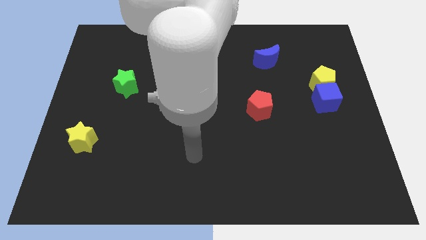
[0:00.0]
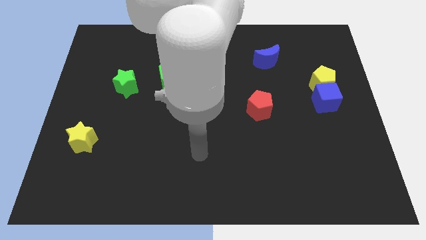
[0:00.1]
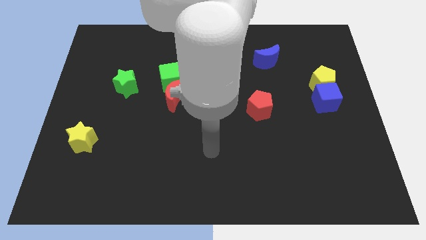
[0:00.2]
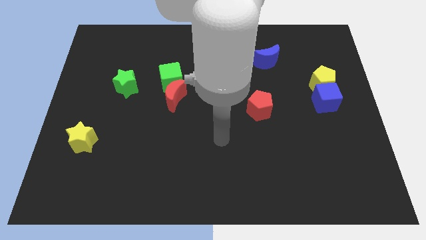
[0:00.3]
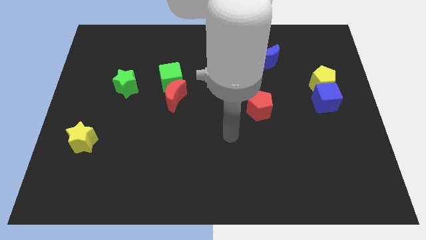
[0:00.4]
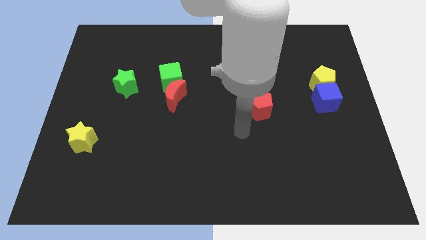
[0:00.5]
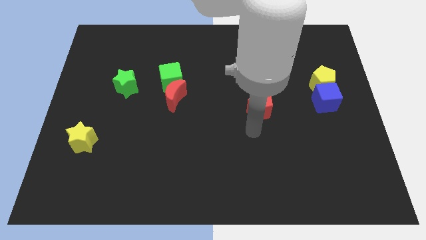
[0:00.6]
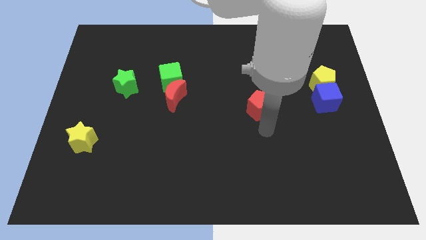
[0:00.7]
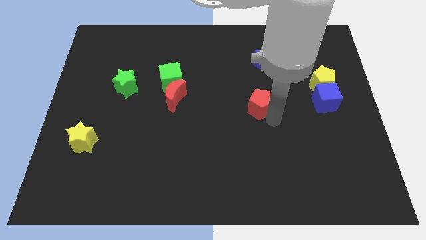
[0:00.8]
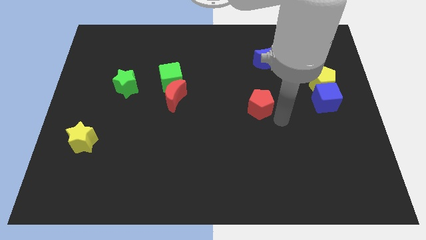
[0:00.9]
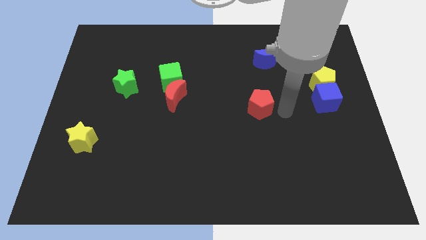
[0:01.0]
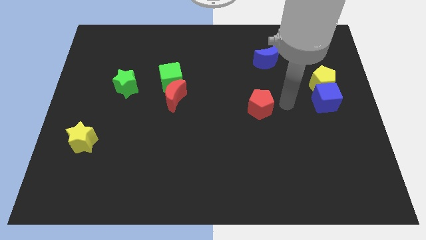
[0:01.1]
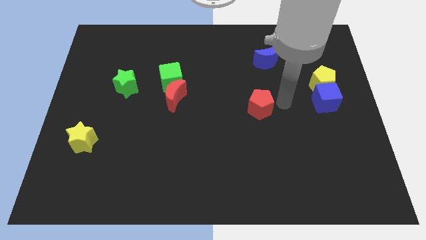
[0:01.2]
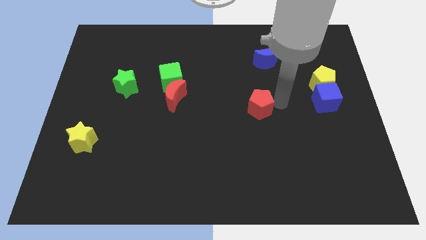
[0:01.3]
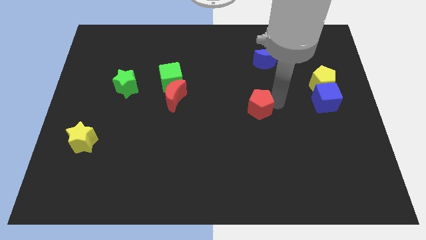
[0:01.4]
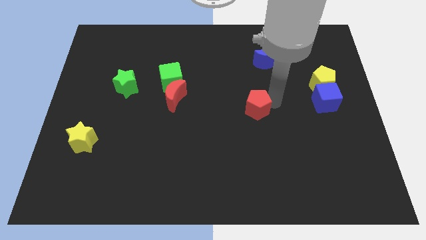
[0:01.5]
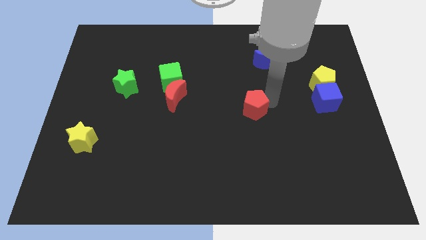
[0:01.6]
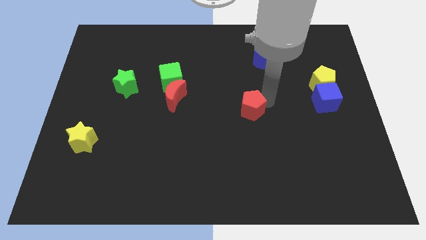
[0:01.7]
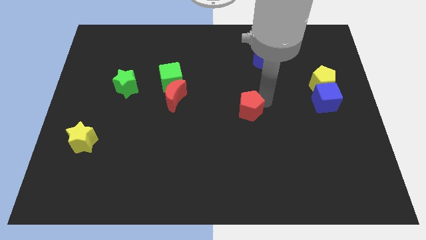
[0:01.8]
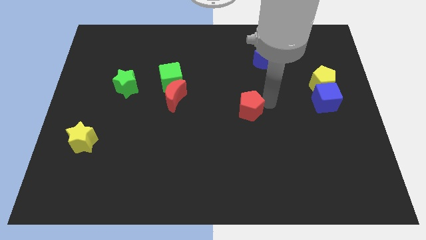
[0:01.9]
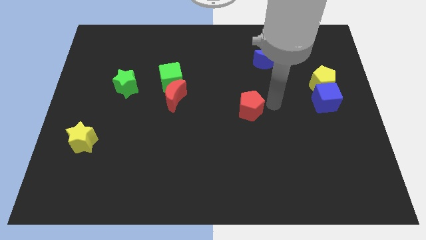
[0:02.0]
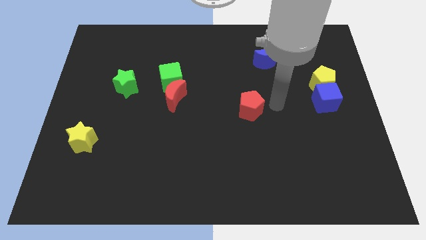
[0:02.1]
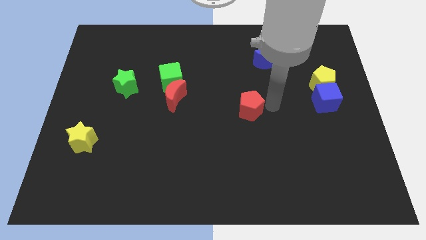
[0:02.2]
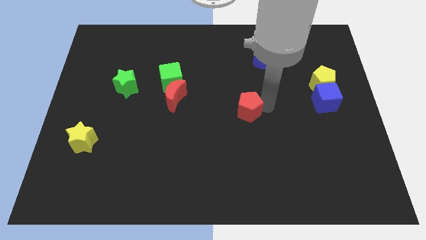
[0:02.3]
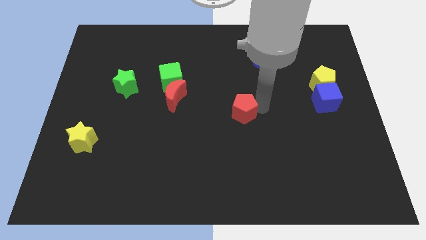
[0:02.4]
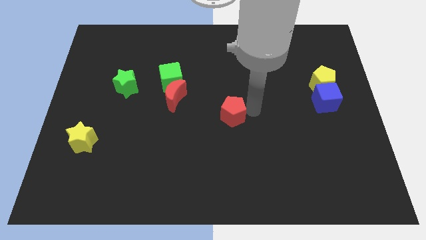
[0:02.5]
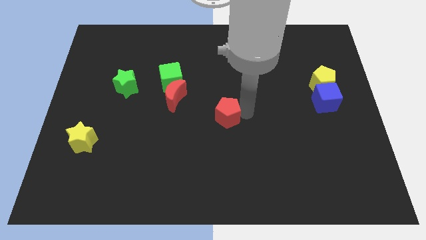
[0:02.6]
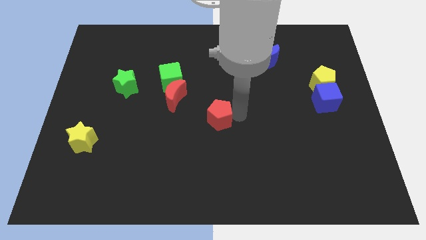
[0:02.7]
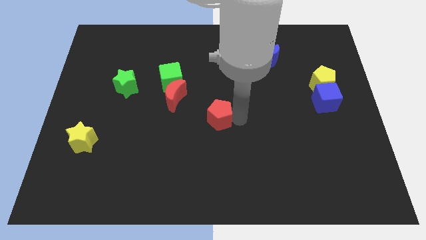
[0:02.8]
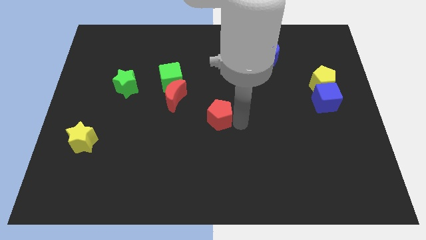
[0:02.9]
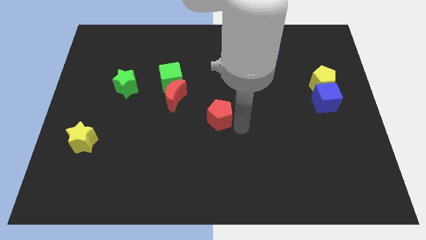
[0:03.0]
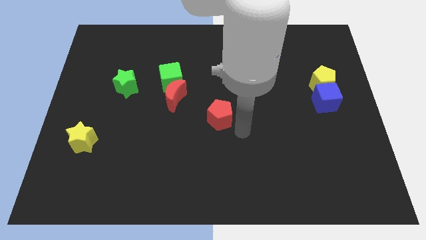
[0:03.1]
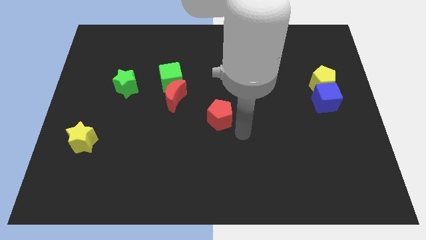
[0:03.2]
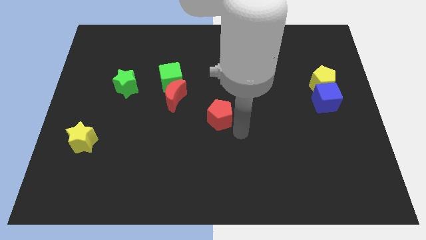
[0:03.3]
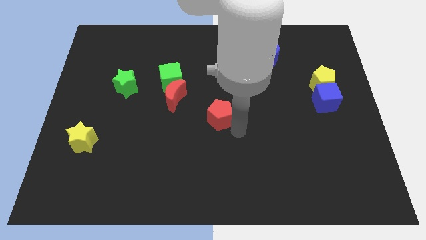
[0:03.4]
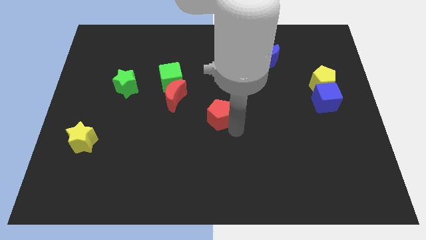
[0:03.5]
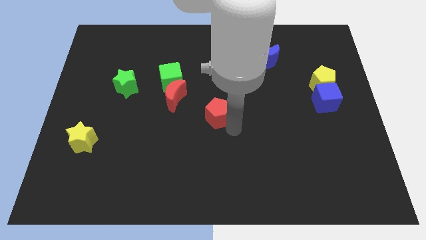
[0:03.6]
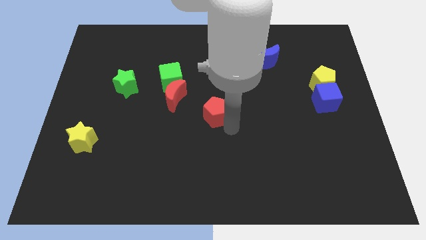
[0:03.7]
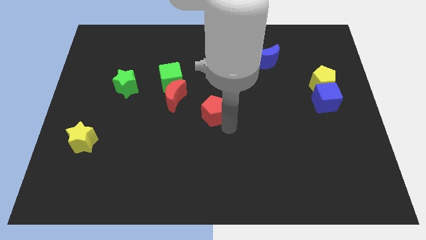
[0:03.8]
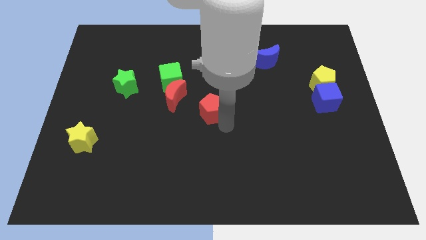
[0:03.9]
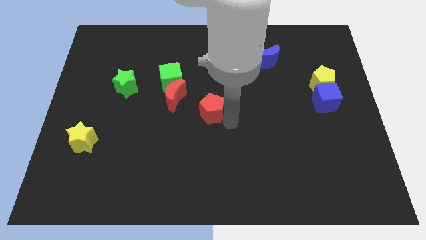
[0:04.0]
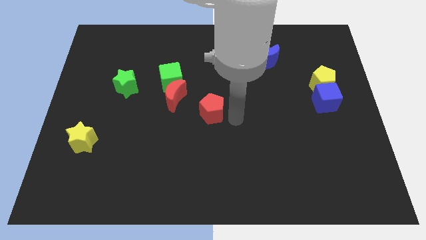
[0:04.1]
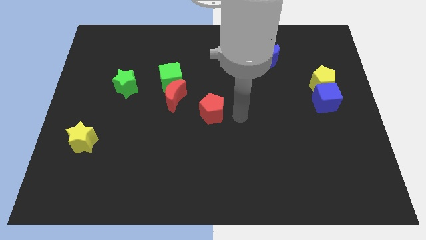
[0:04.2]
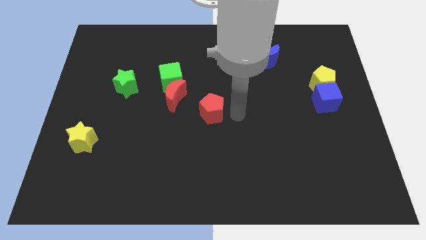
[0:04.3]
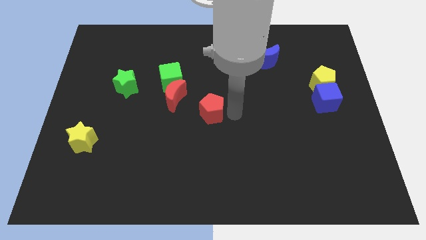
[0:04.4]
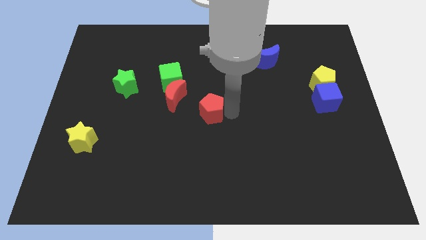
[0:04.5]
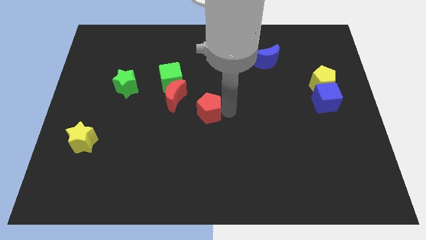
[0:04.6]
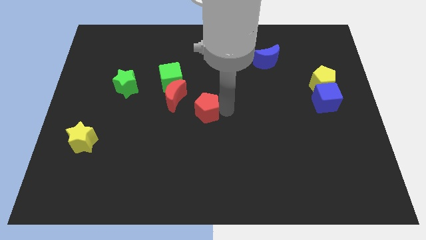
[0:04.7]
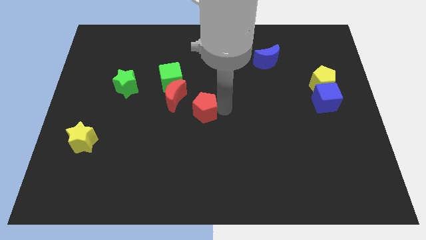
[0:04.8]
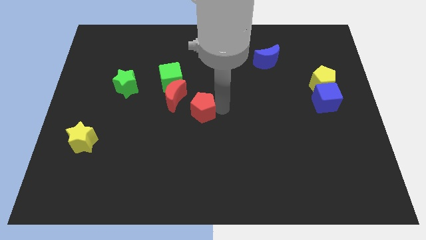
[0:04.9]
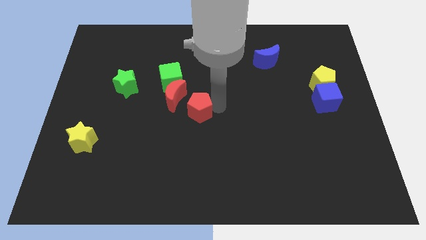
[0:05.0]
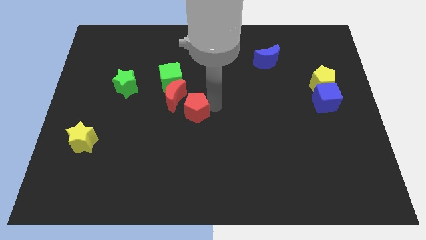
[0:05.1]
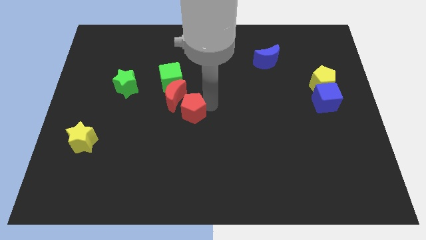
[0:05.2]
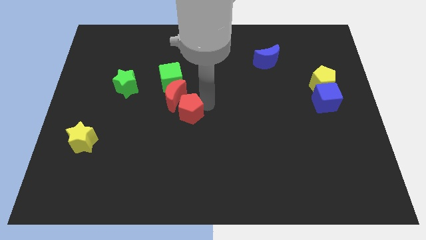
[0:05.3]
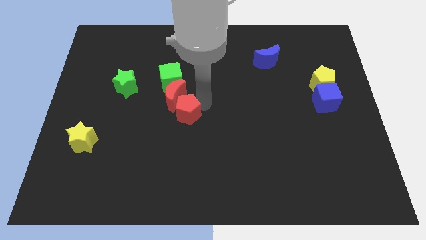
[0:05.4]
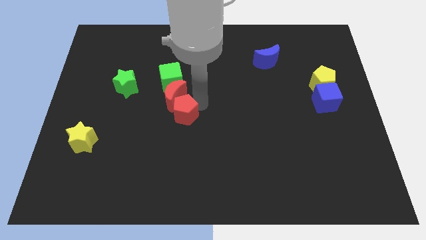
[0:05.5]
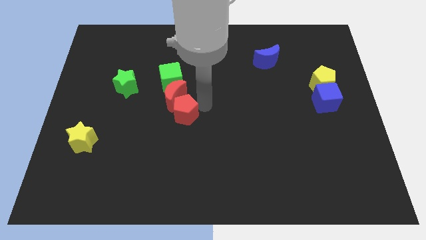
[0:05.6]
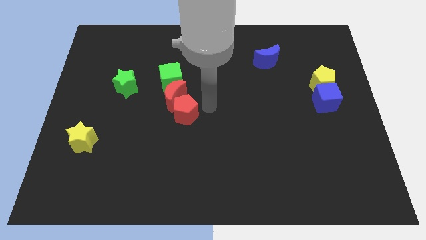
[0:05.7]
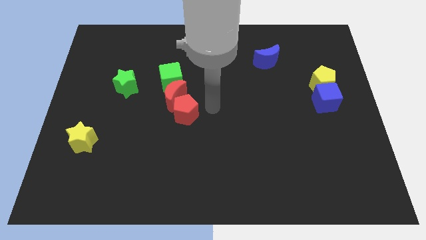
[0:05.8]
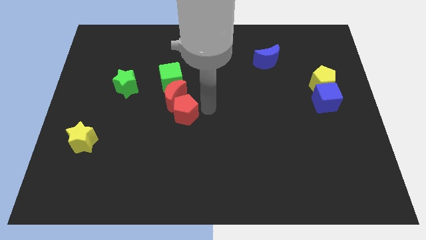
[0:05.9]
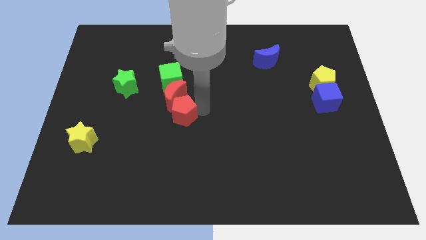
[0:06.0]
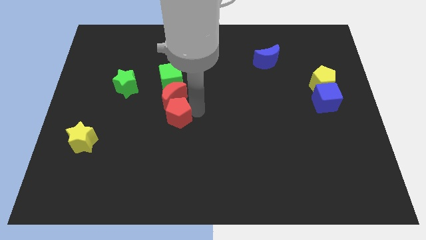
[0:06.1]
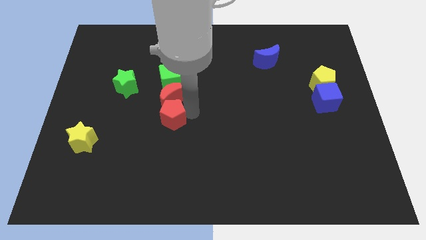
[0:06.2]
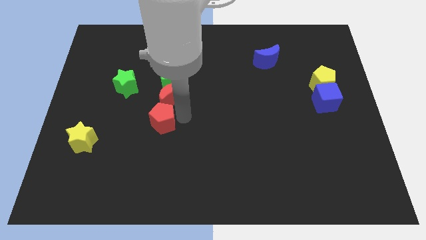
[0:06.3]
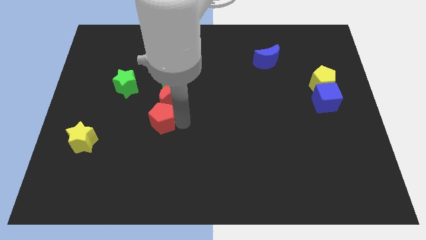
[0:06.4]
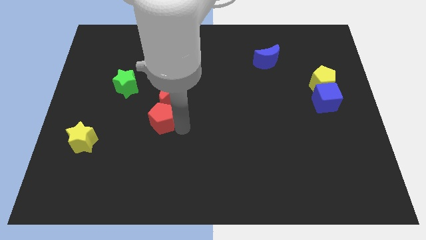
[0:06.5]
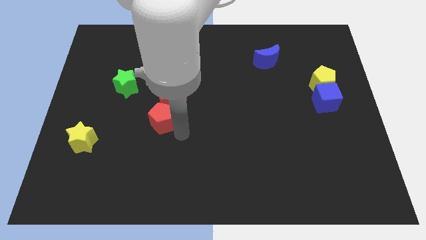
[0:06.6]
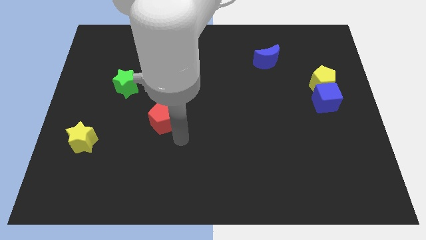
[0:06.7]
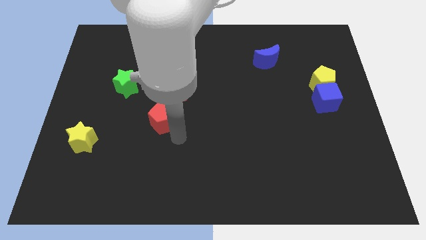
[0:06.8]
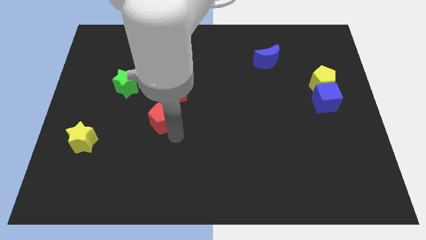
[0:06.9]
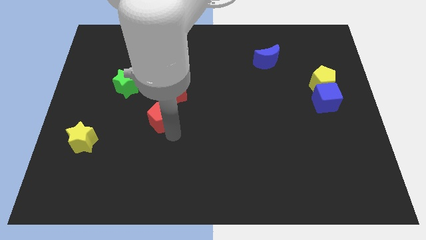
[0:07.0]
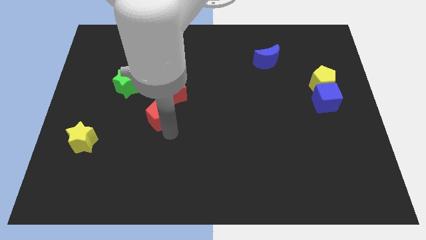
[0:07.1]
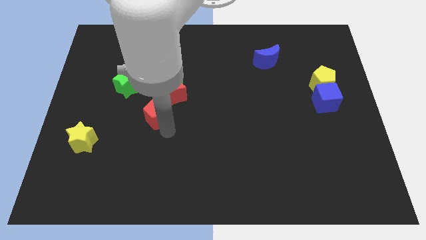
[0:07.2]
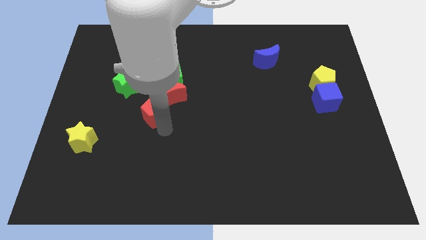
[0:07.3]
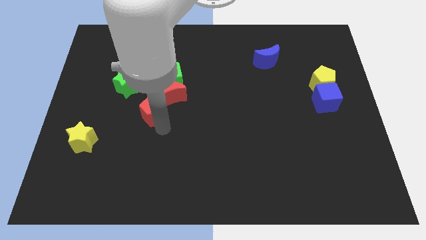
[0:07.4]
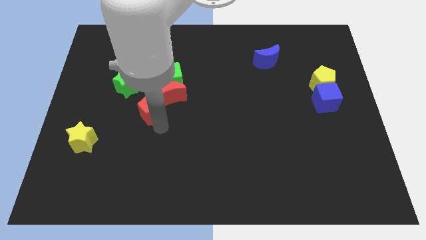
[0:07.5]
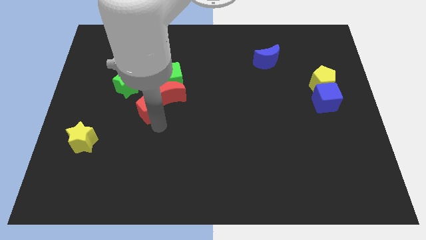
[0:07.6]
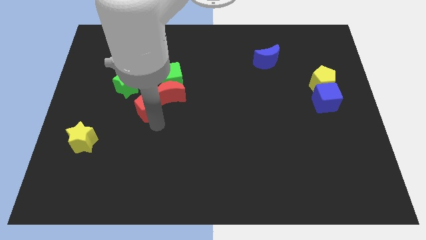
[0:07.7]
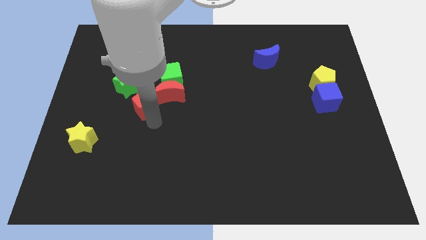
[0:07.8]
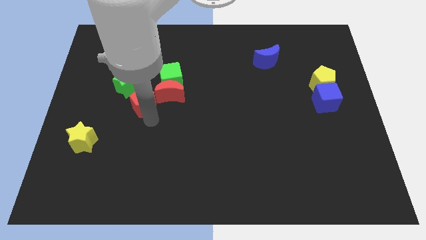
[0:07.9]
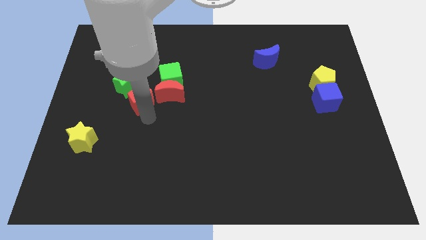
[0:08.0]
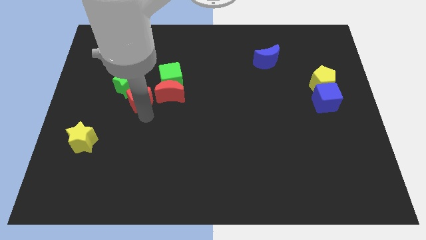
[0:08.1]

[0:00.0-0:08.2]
slide the red pentagon next to the green star
